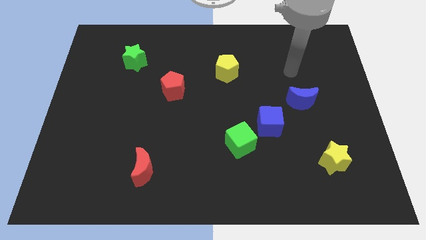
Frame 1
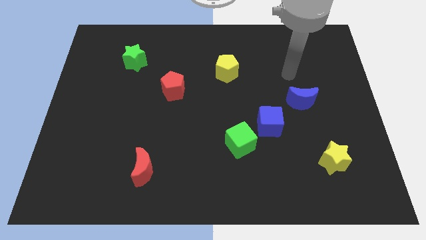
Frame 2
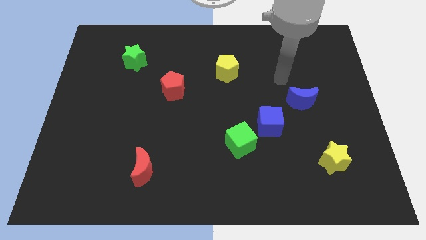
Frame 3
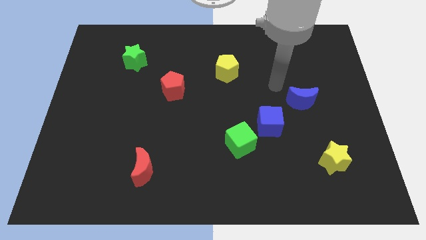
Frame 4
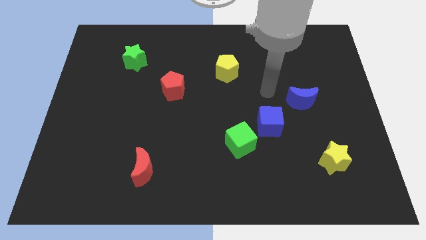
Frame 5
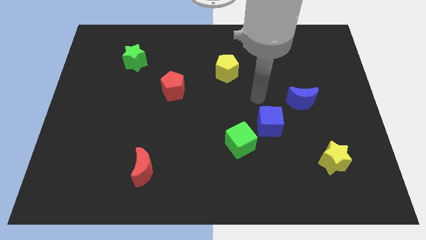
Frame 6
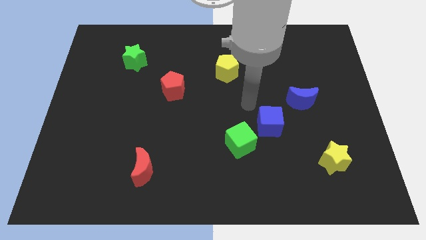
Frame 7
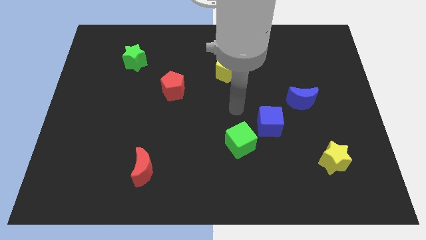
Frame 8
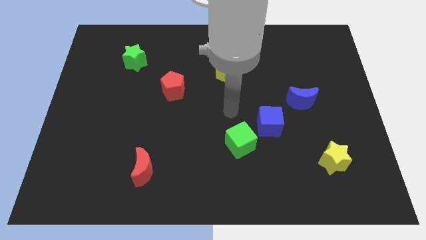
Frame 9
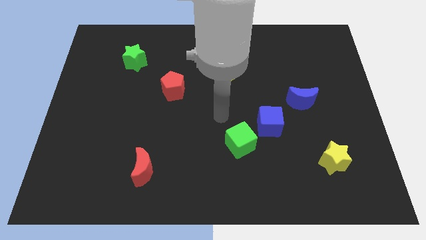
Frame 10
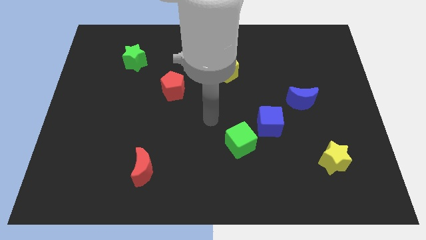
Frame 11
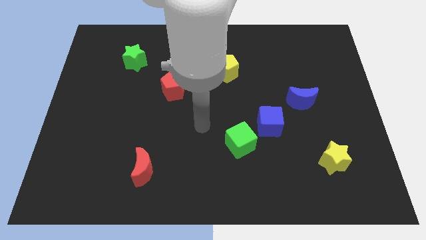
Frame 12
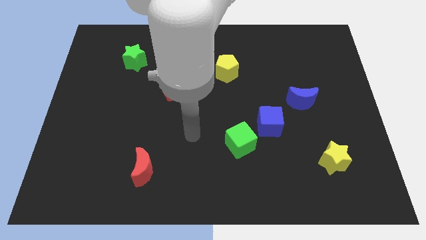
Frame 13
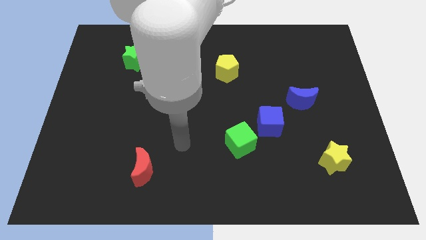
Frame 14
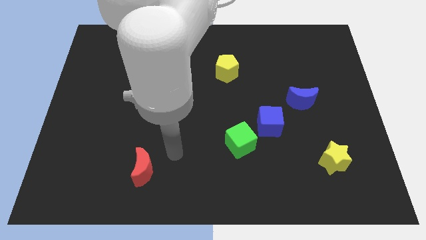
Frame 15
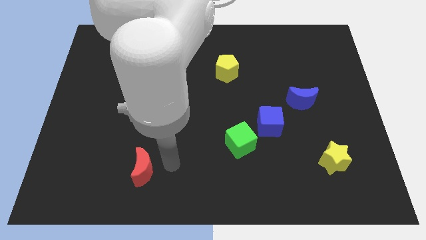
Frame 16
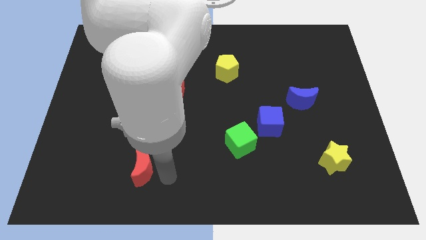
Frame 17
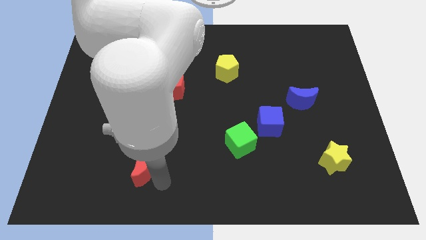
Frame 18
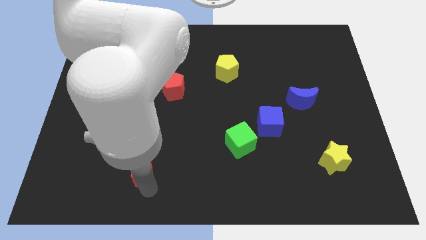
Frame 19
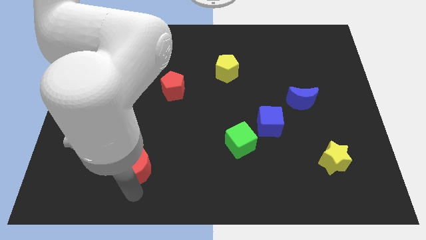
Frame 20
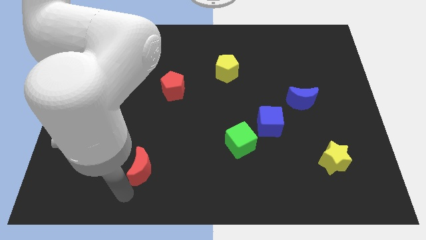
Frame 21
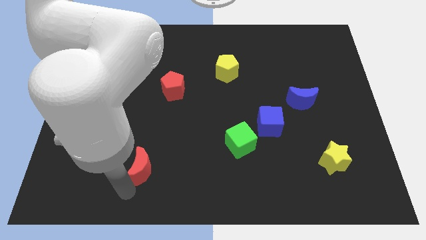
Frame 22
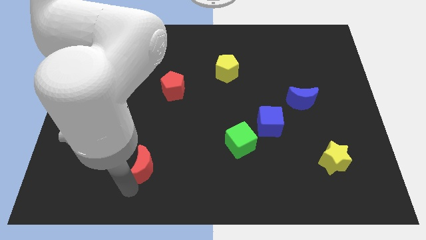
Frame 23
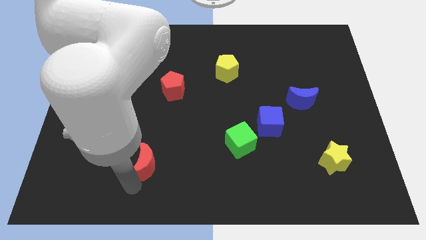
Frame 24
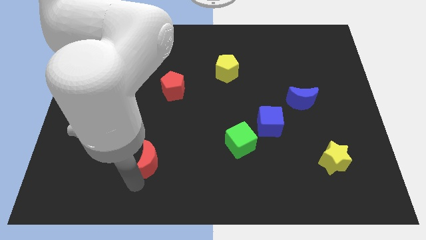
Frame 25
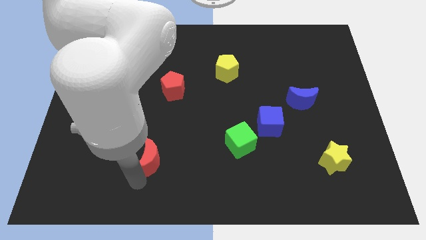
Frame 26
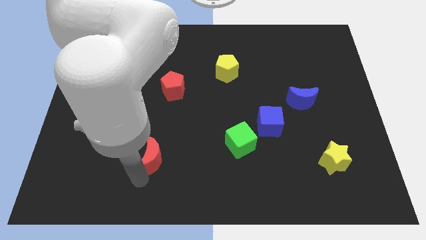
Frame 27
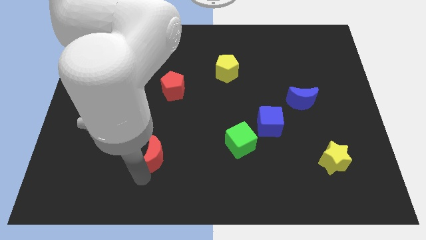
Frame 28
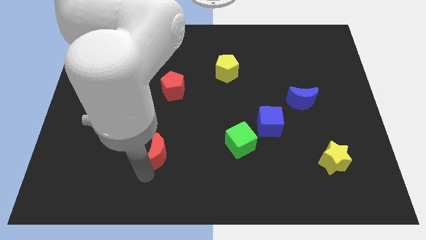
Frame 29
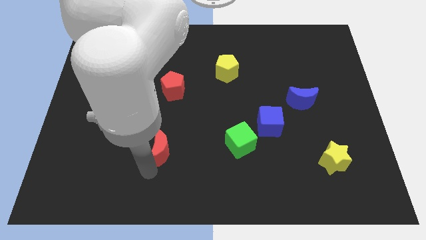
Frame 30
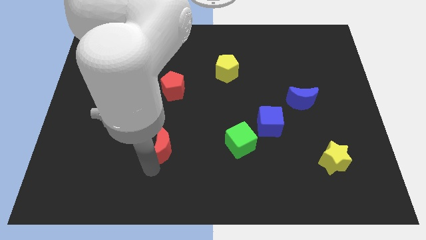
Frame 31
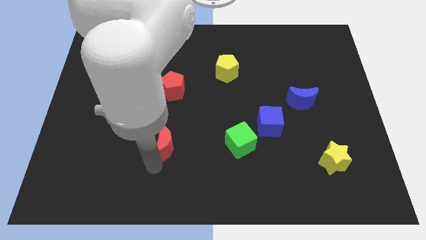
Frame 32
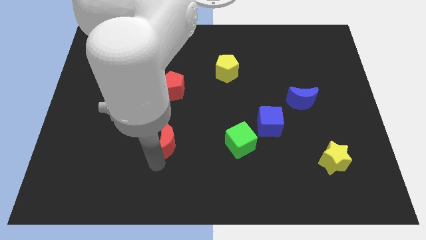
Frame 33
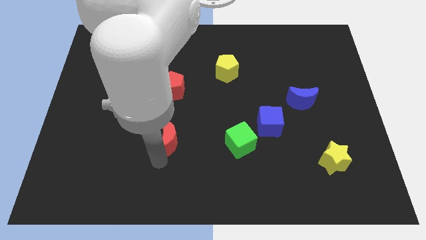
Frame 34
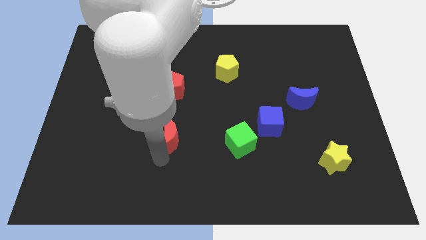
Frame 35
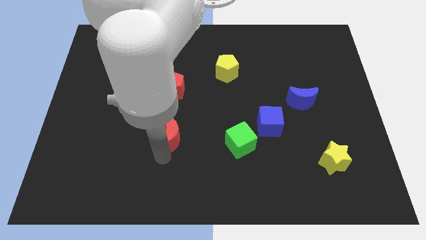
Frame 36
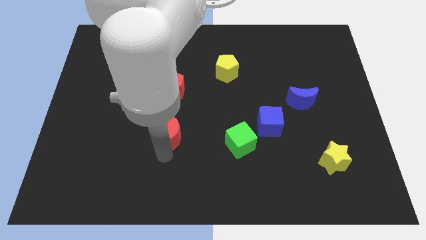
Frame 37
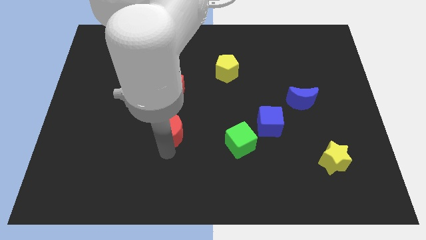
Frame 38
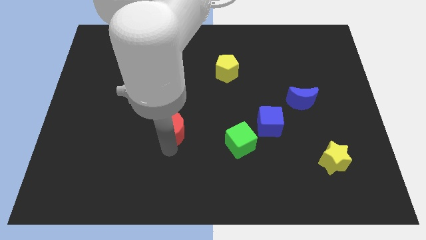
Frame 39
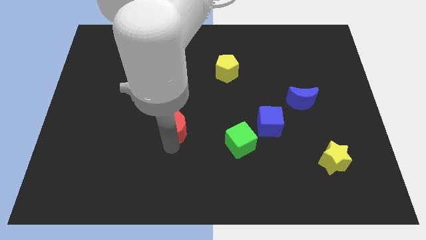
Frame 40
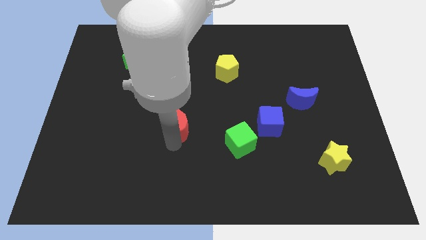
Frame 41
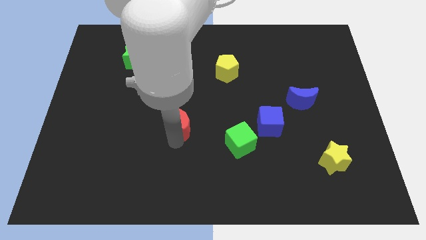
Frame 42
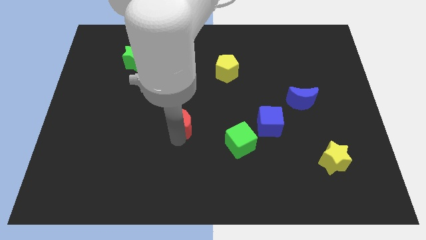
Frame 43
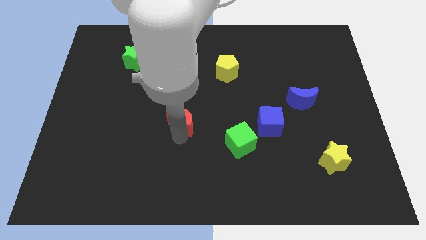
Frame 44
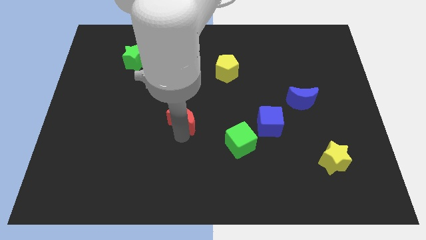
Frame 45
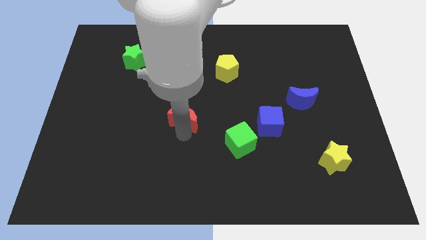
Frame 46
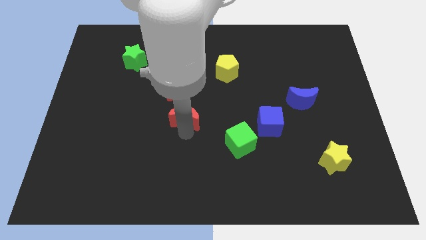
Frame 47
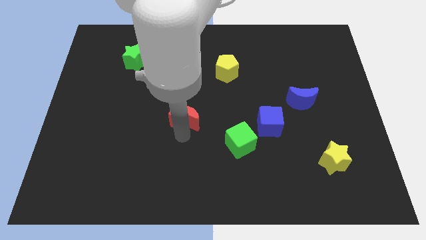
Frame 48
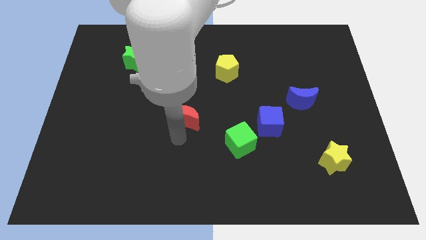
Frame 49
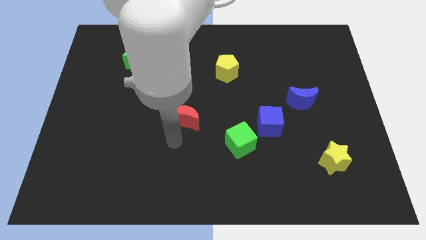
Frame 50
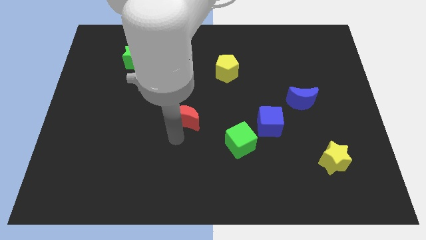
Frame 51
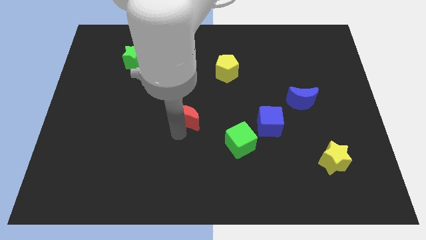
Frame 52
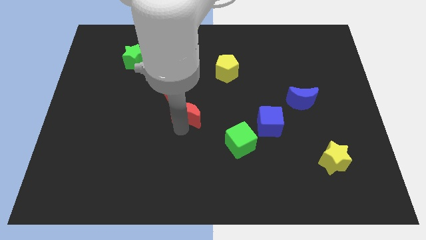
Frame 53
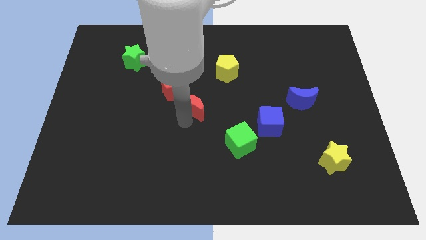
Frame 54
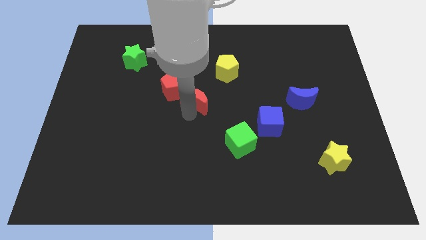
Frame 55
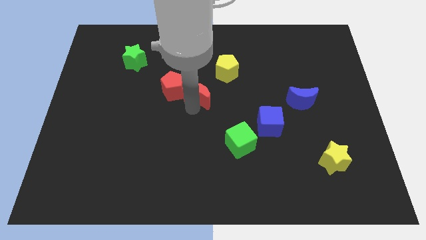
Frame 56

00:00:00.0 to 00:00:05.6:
push the red moon to the bottom left side of the yellow pentagon

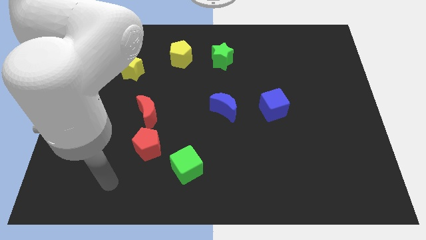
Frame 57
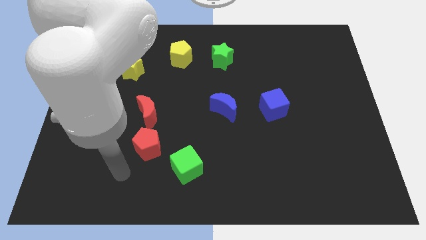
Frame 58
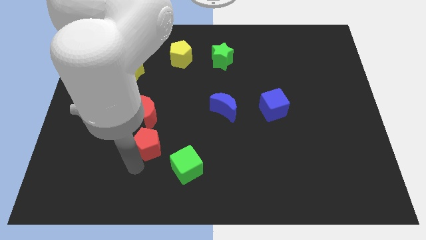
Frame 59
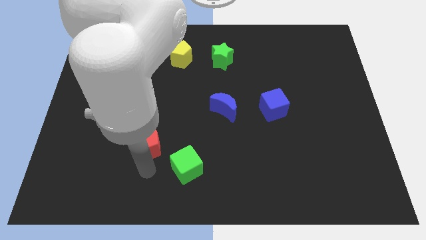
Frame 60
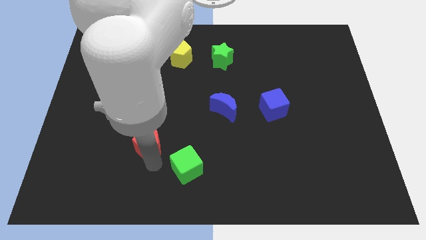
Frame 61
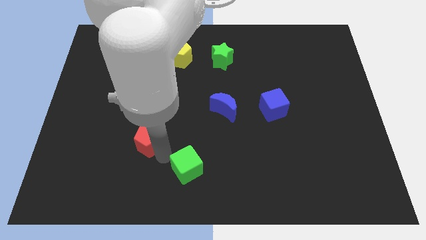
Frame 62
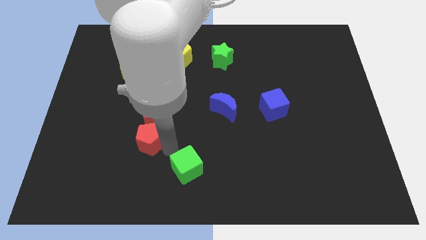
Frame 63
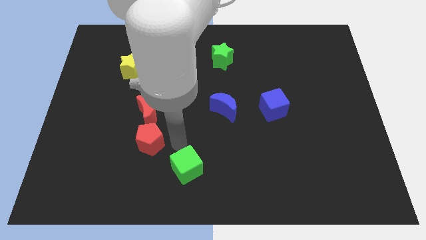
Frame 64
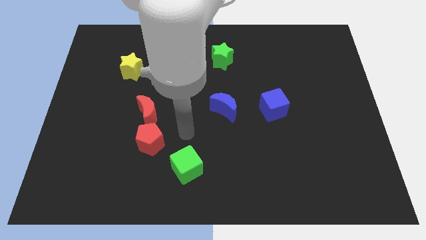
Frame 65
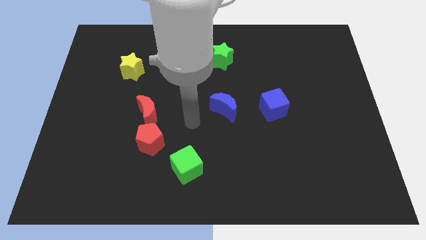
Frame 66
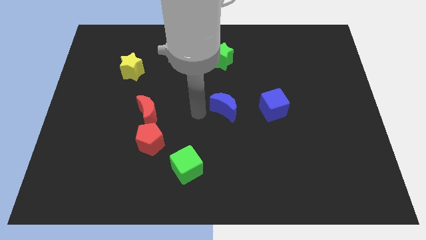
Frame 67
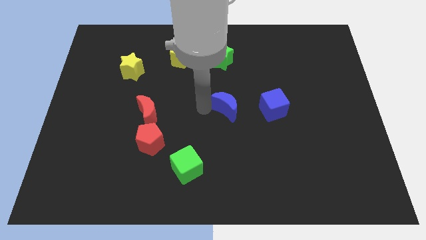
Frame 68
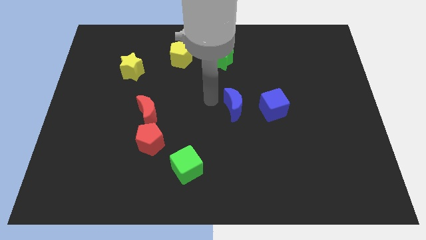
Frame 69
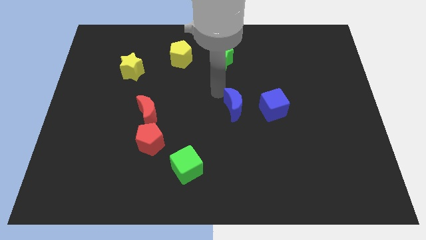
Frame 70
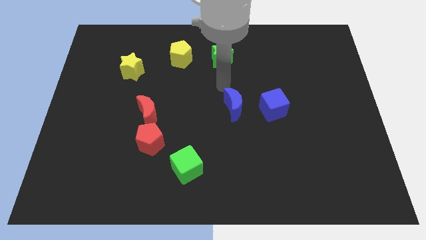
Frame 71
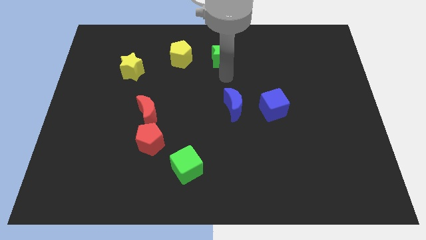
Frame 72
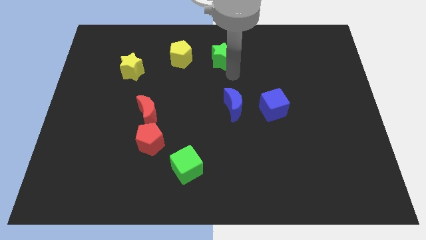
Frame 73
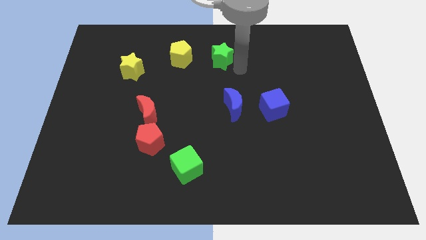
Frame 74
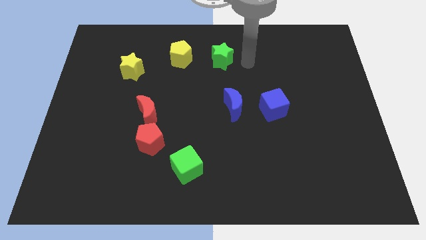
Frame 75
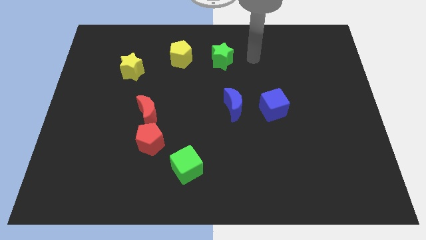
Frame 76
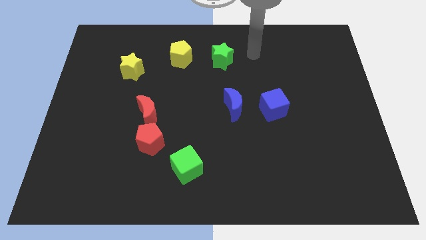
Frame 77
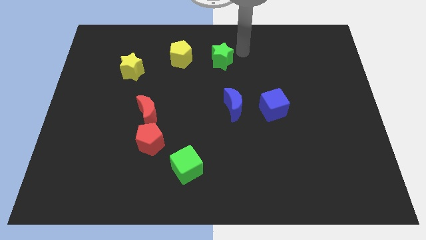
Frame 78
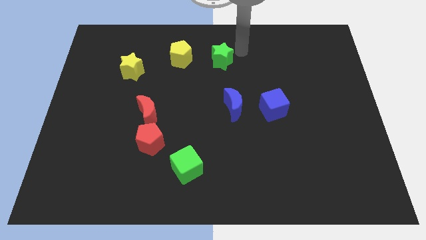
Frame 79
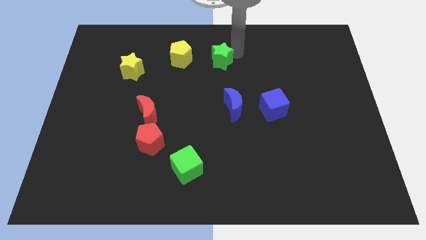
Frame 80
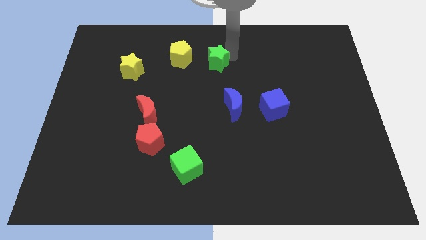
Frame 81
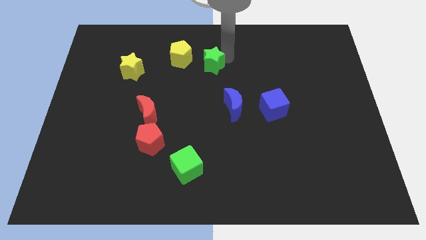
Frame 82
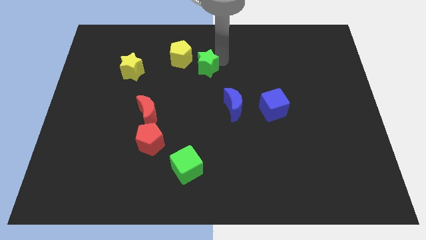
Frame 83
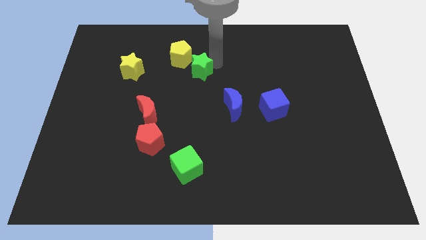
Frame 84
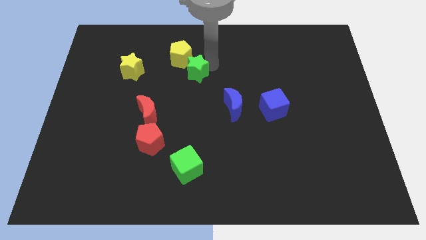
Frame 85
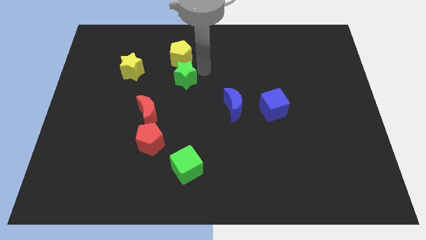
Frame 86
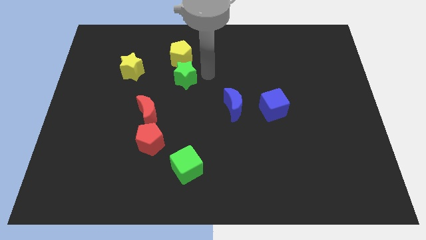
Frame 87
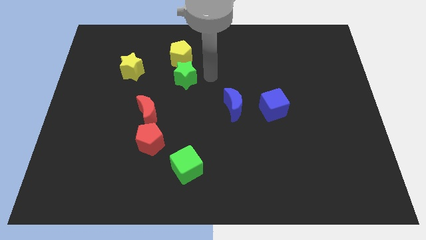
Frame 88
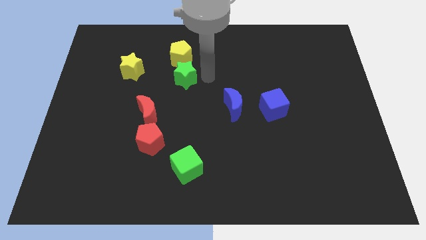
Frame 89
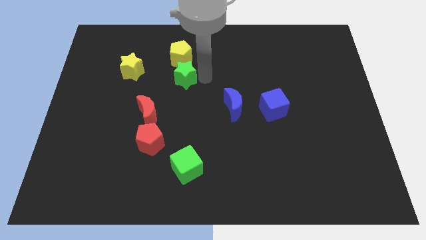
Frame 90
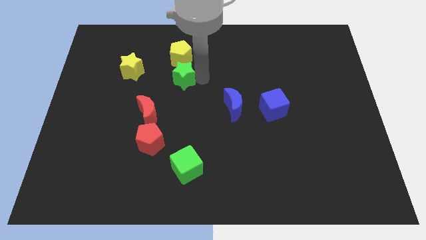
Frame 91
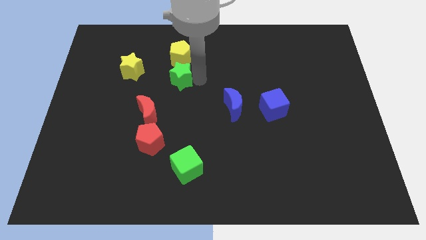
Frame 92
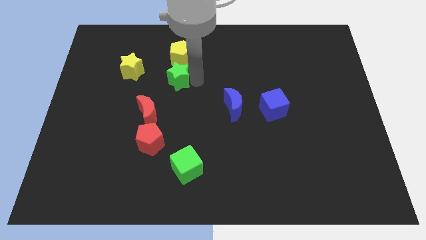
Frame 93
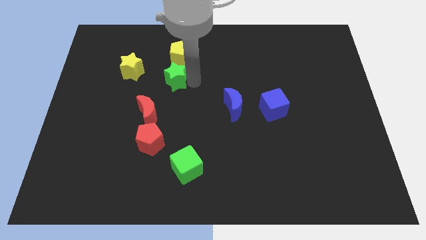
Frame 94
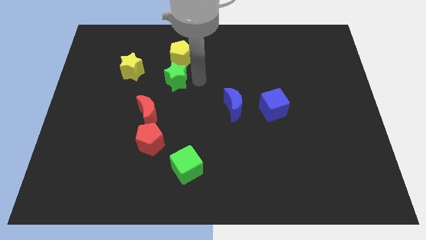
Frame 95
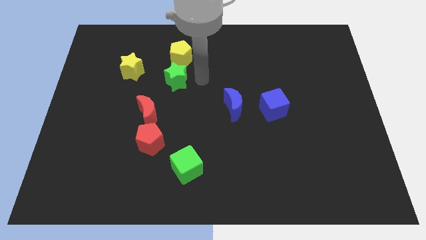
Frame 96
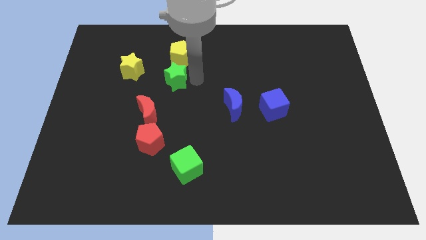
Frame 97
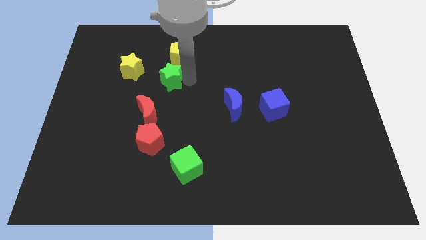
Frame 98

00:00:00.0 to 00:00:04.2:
put the green star to the top of the red moon
